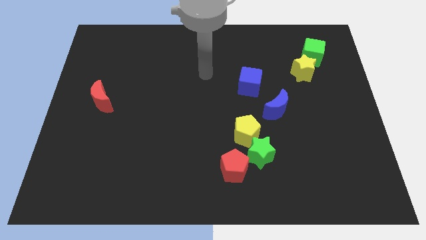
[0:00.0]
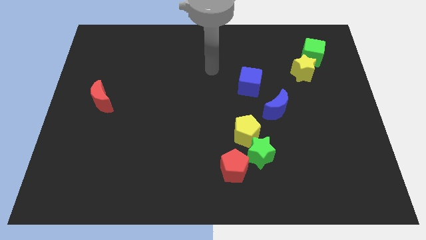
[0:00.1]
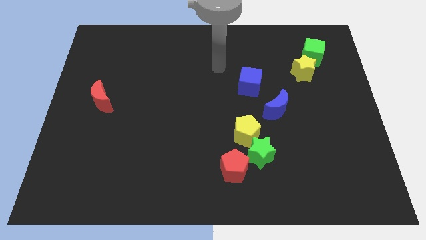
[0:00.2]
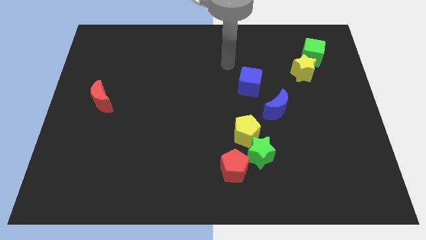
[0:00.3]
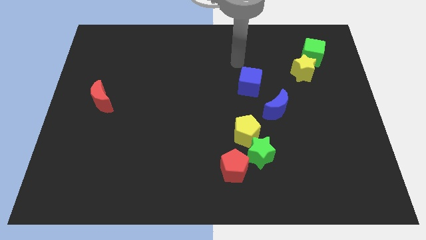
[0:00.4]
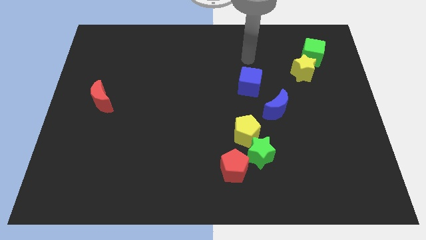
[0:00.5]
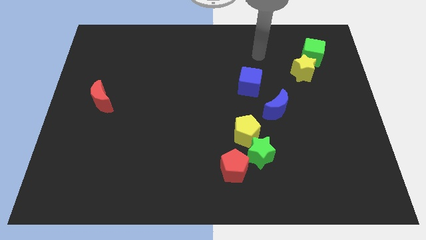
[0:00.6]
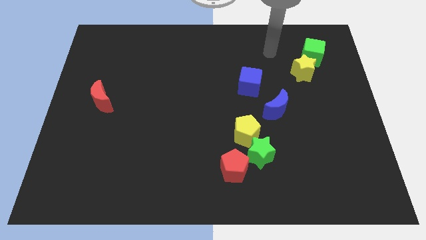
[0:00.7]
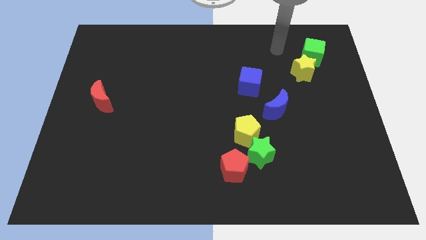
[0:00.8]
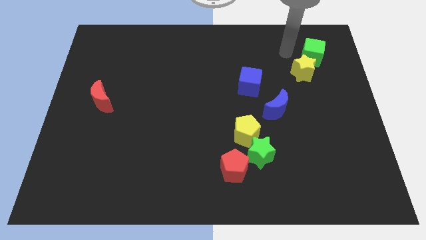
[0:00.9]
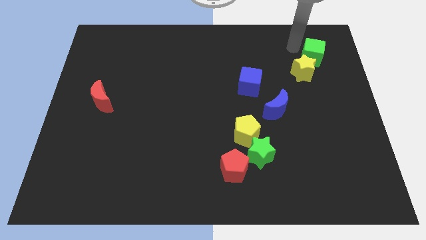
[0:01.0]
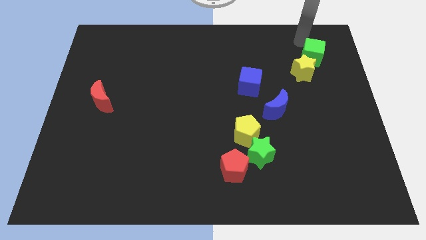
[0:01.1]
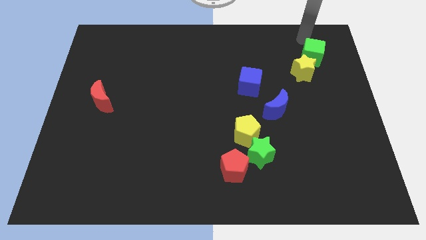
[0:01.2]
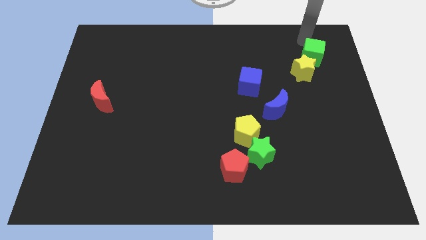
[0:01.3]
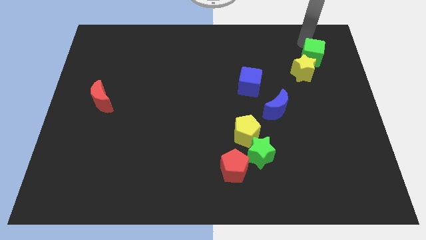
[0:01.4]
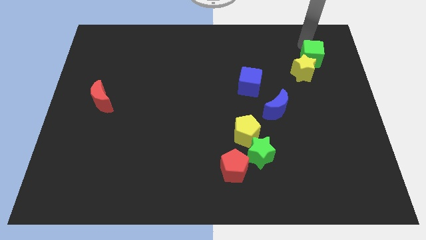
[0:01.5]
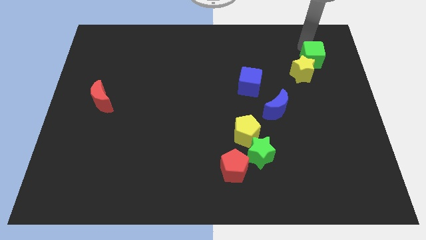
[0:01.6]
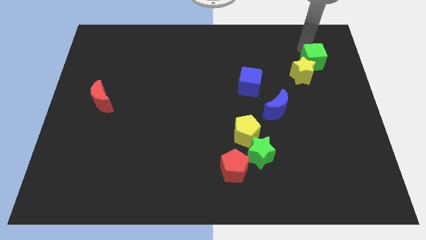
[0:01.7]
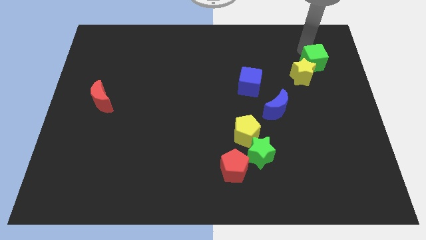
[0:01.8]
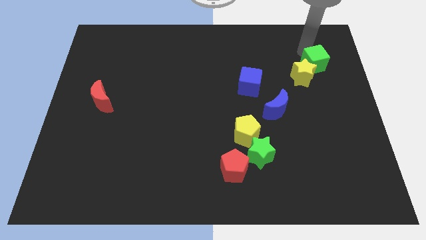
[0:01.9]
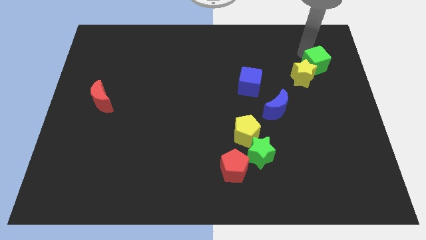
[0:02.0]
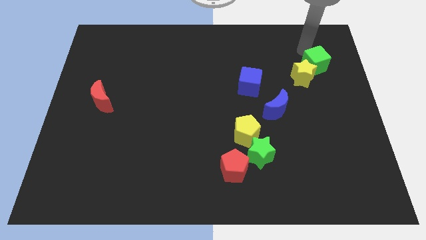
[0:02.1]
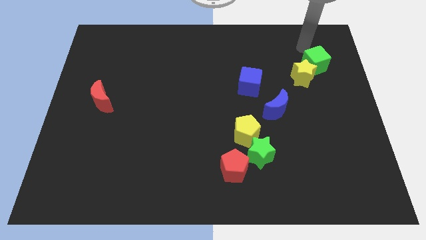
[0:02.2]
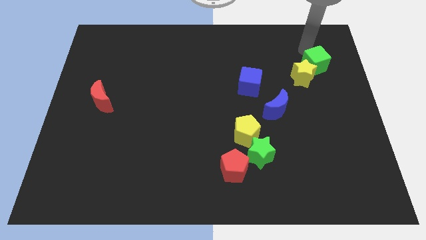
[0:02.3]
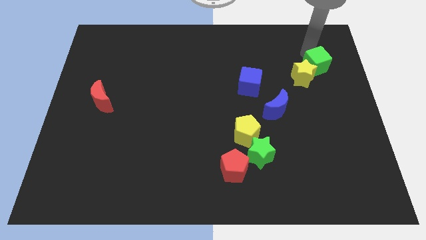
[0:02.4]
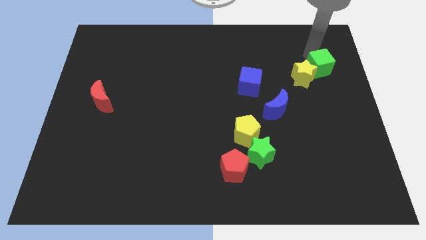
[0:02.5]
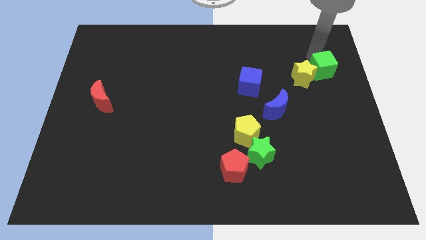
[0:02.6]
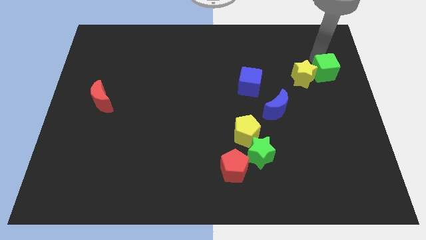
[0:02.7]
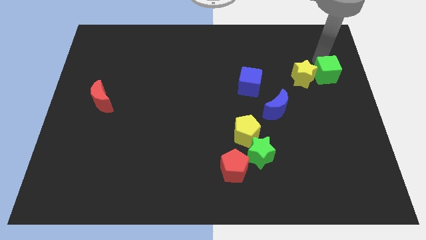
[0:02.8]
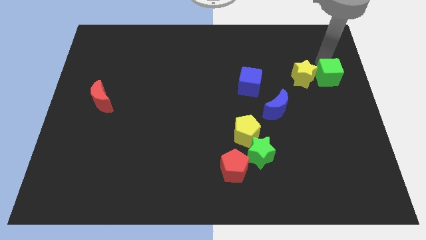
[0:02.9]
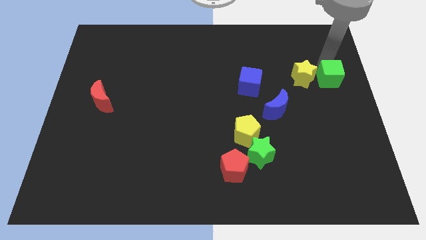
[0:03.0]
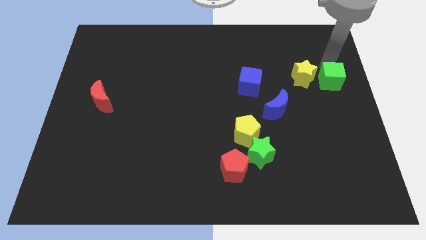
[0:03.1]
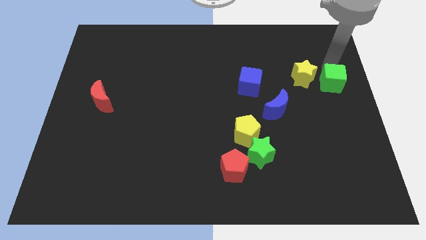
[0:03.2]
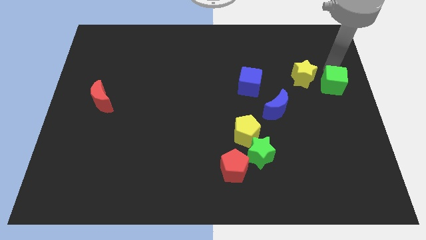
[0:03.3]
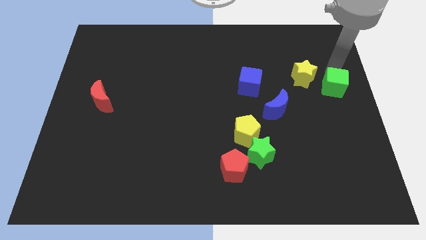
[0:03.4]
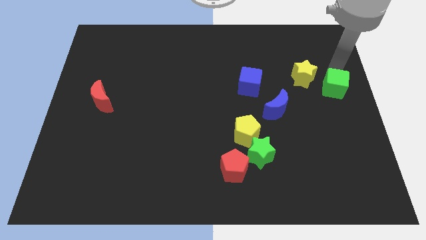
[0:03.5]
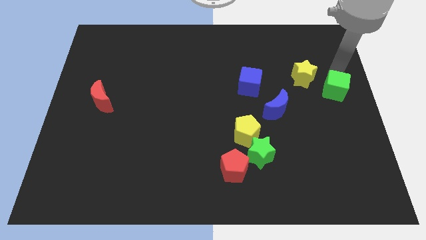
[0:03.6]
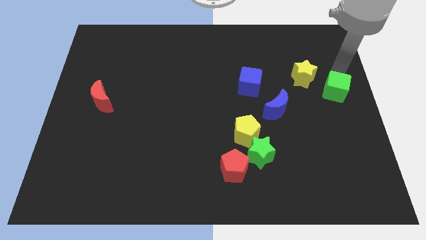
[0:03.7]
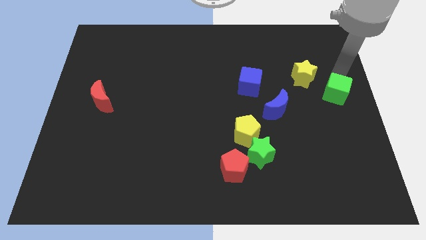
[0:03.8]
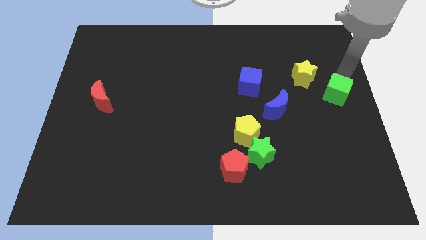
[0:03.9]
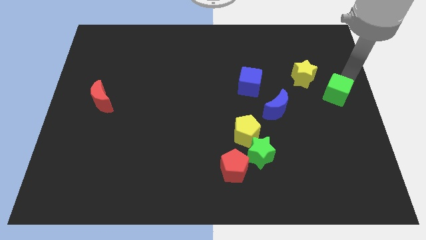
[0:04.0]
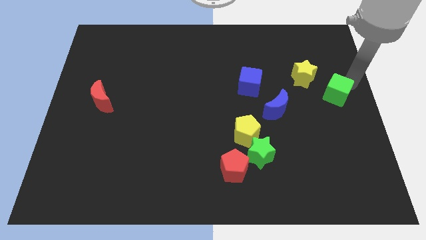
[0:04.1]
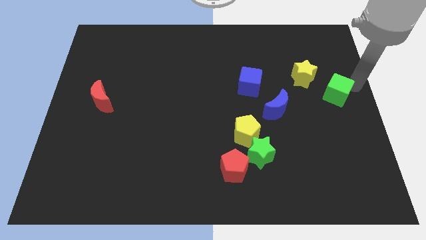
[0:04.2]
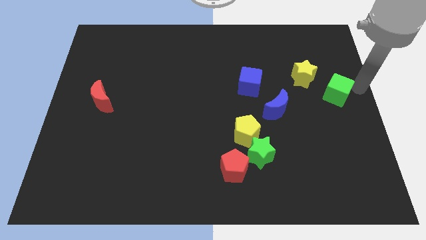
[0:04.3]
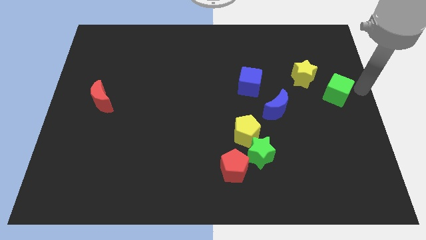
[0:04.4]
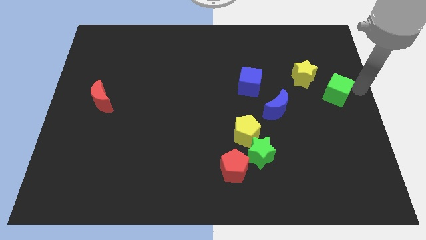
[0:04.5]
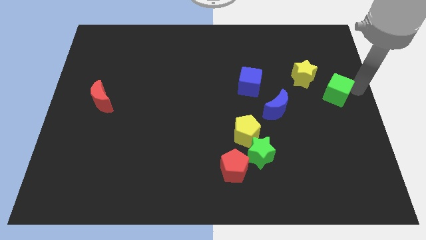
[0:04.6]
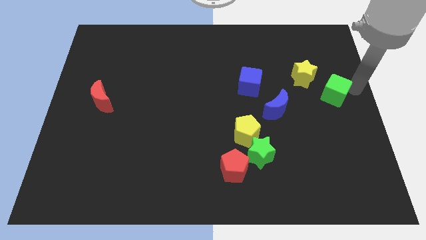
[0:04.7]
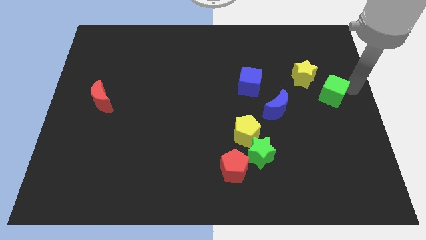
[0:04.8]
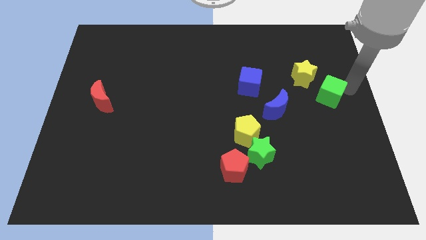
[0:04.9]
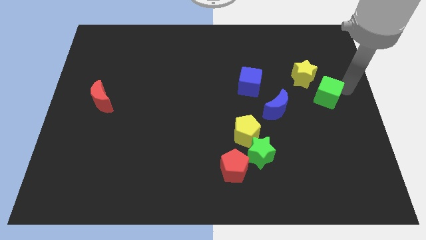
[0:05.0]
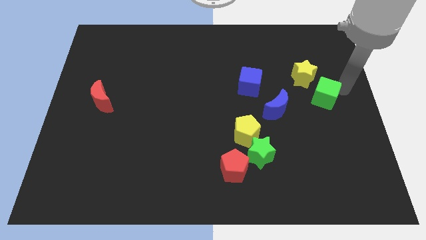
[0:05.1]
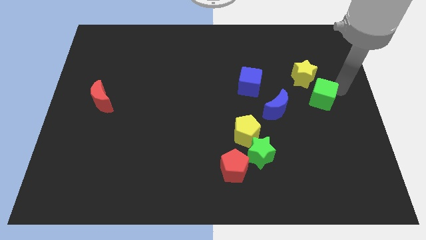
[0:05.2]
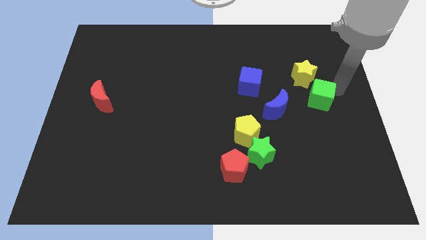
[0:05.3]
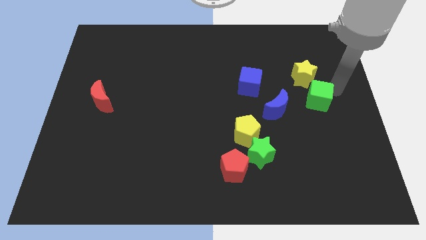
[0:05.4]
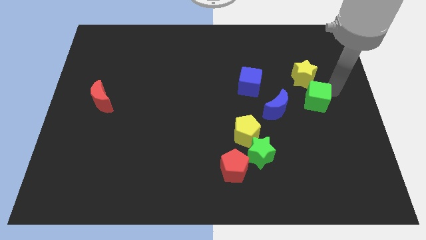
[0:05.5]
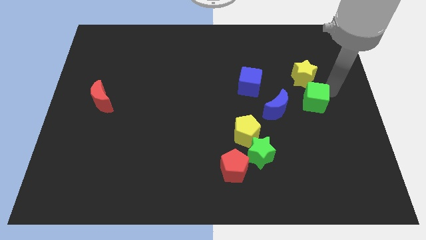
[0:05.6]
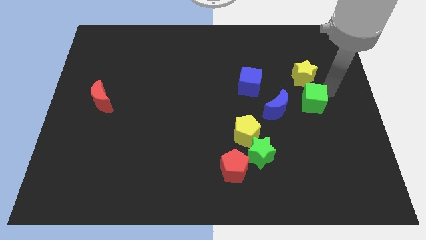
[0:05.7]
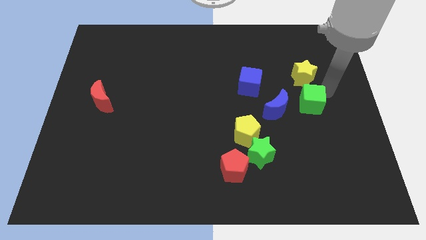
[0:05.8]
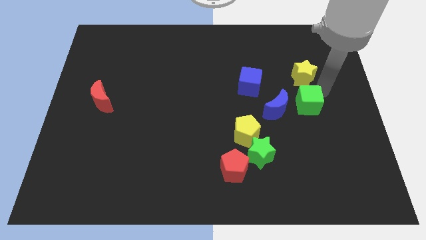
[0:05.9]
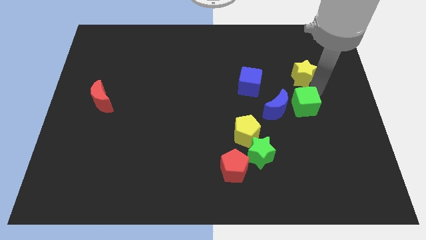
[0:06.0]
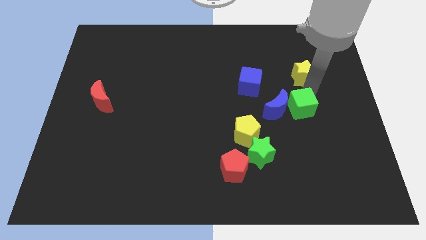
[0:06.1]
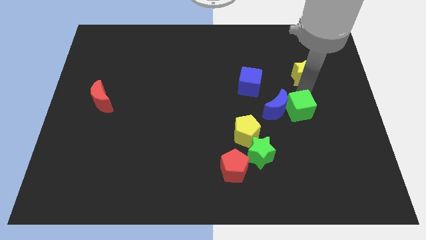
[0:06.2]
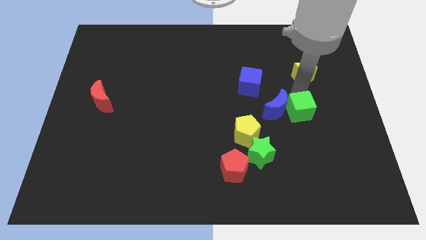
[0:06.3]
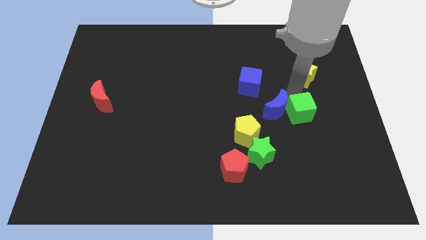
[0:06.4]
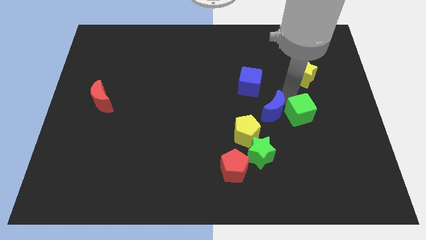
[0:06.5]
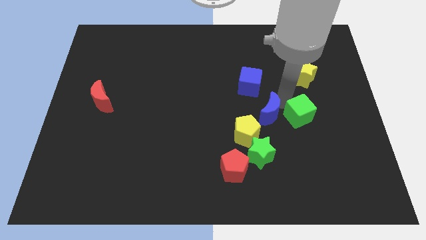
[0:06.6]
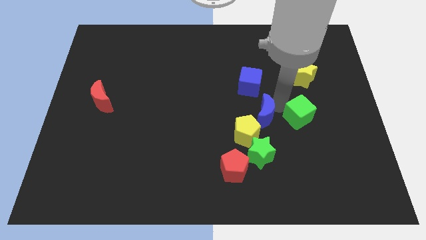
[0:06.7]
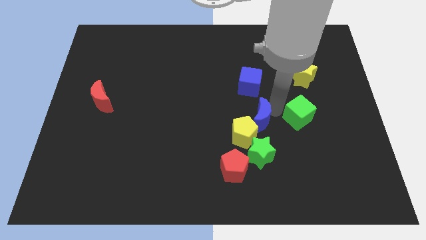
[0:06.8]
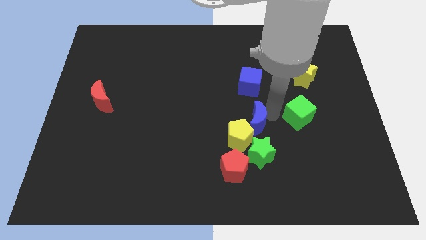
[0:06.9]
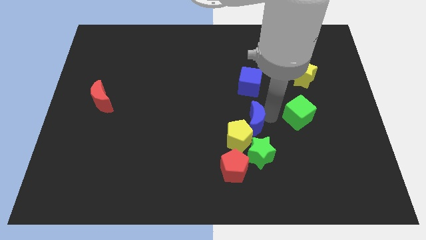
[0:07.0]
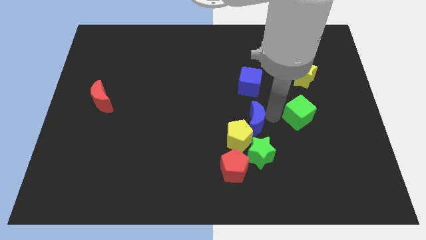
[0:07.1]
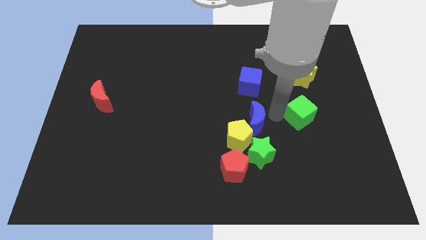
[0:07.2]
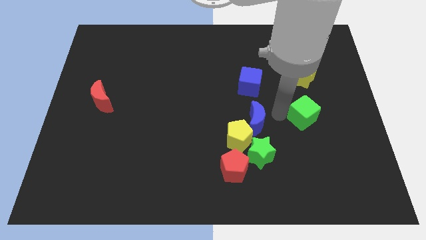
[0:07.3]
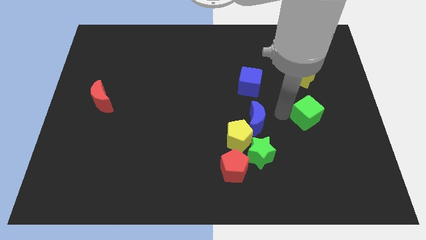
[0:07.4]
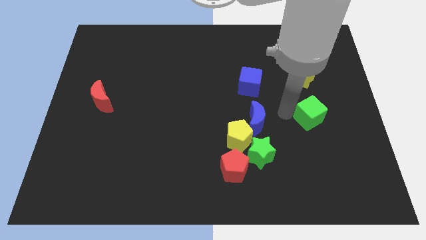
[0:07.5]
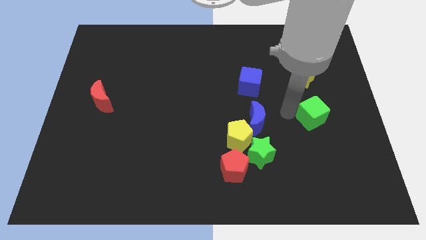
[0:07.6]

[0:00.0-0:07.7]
slide the green cube downwards

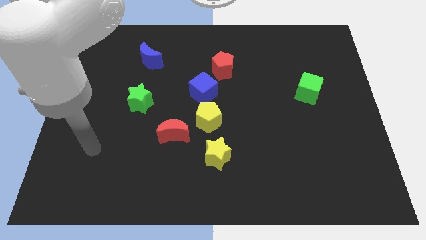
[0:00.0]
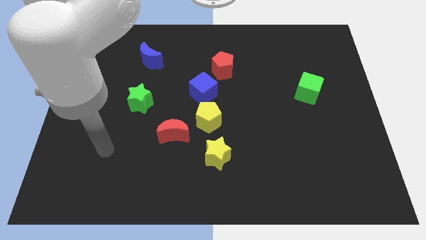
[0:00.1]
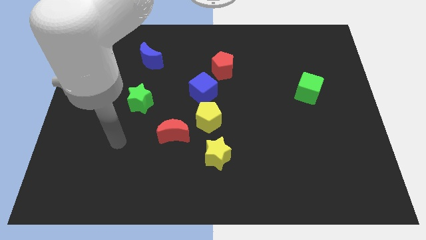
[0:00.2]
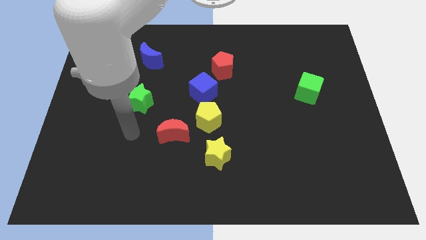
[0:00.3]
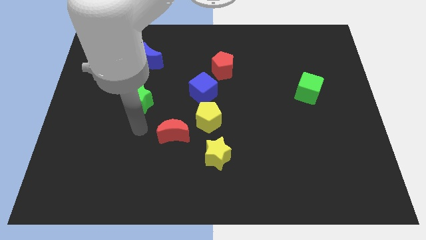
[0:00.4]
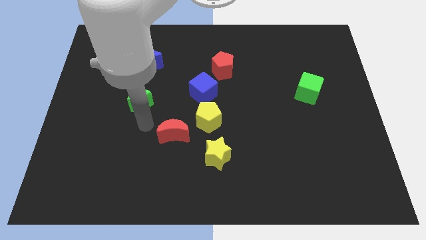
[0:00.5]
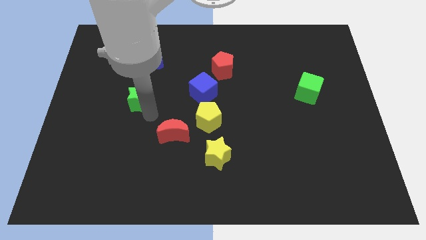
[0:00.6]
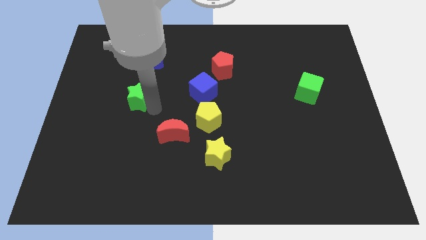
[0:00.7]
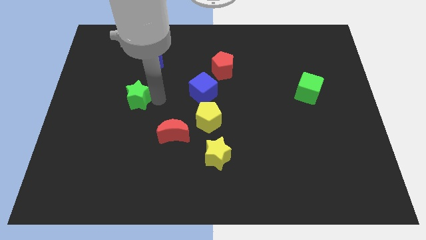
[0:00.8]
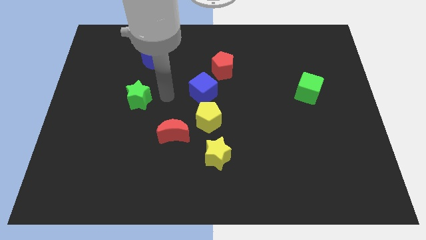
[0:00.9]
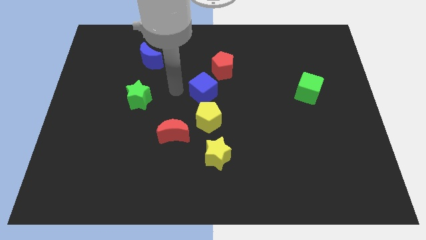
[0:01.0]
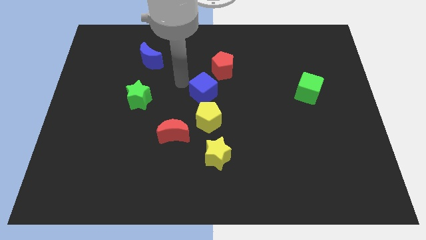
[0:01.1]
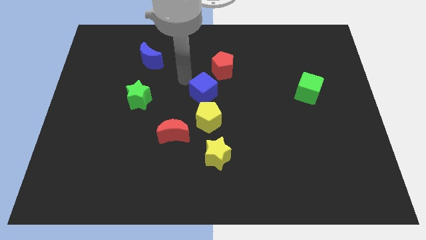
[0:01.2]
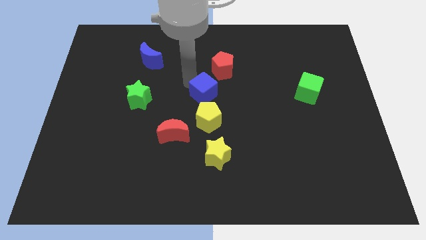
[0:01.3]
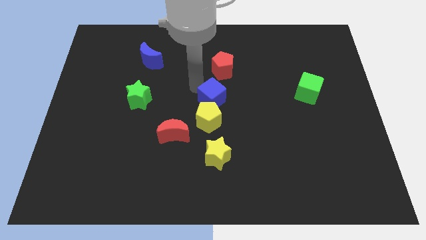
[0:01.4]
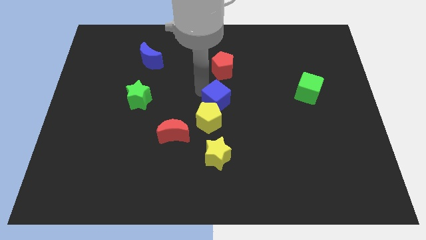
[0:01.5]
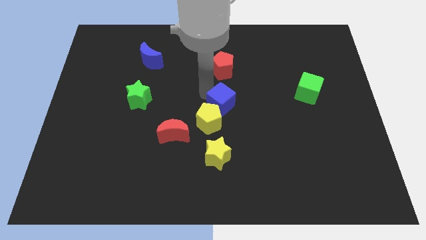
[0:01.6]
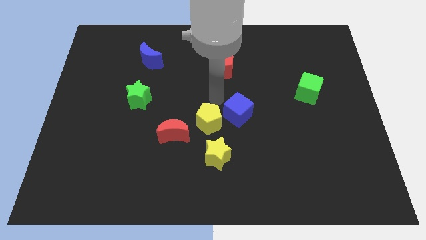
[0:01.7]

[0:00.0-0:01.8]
push the blue cube downwards and then to the right slightly
